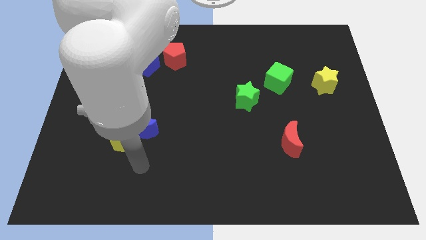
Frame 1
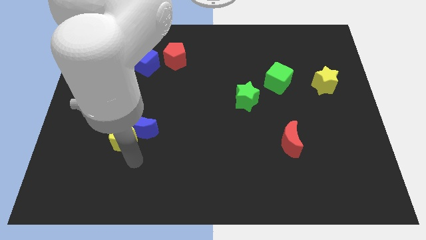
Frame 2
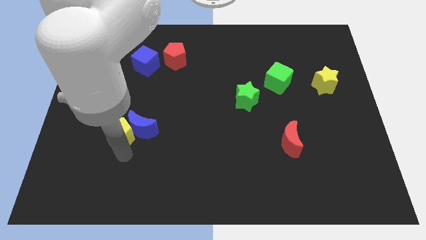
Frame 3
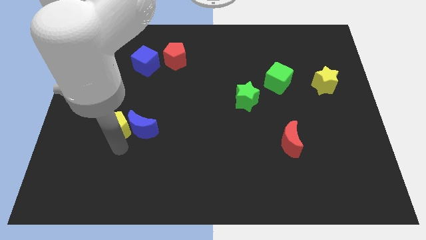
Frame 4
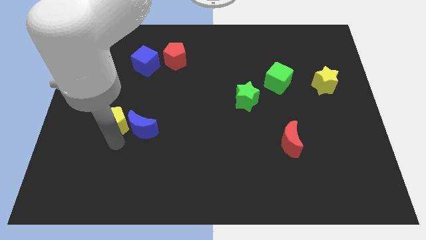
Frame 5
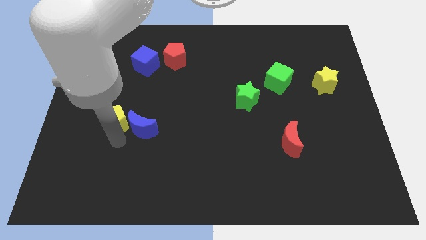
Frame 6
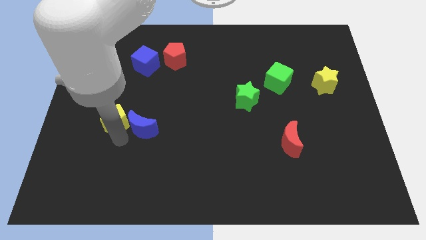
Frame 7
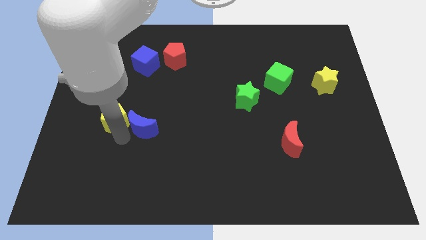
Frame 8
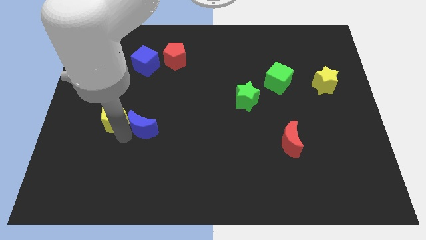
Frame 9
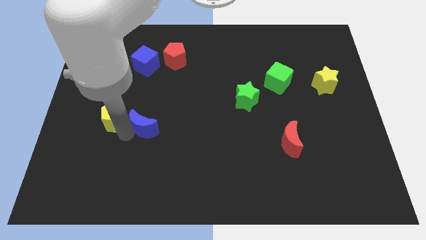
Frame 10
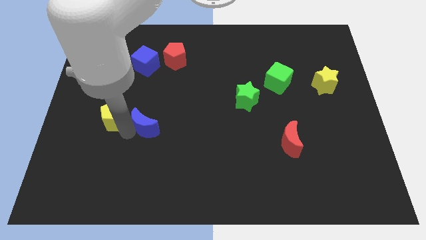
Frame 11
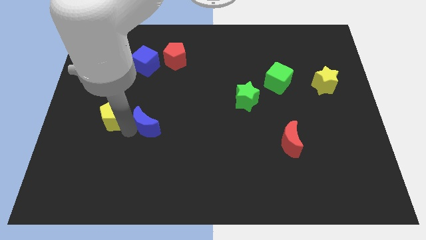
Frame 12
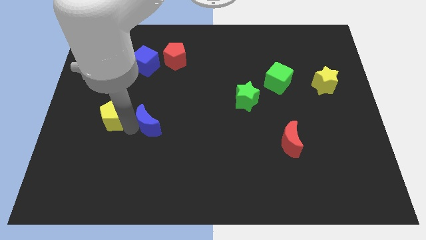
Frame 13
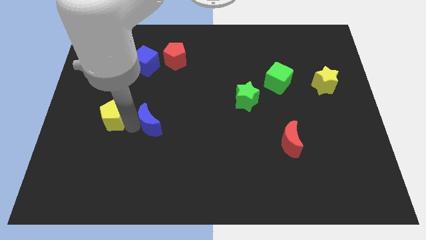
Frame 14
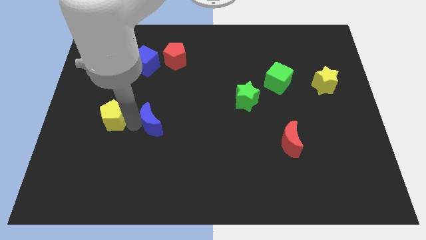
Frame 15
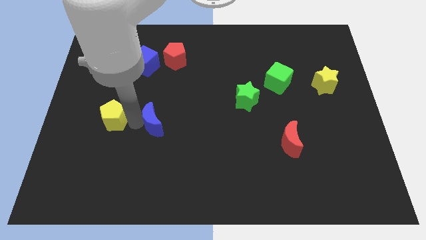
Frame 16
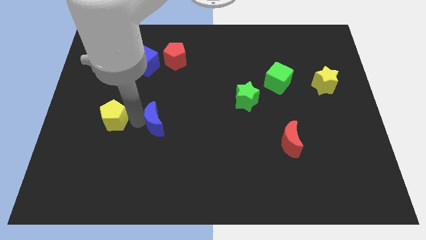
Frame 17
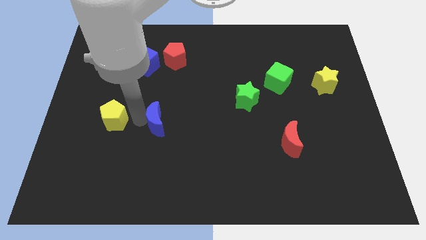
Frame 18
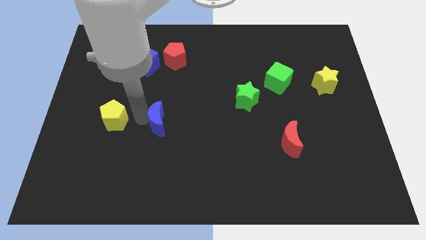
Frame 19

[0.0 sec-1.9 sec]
separate the blue moon from the yellow pentagon

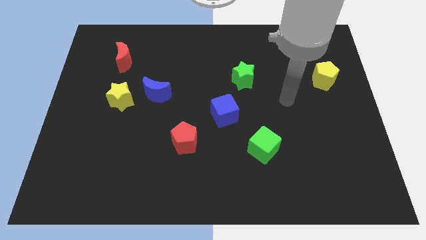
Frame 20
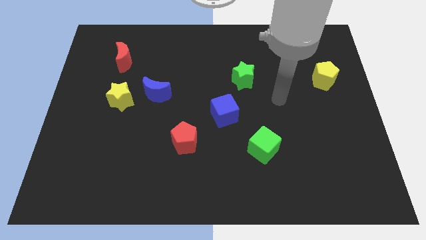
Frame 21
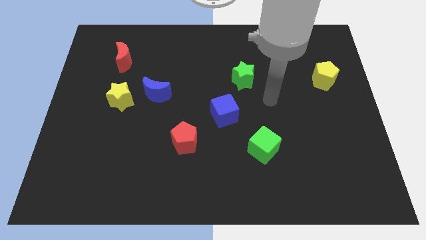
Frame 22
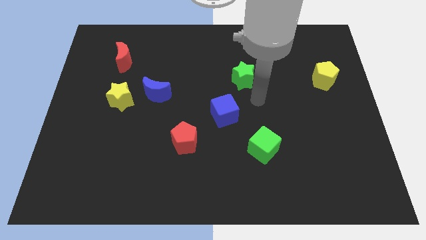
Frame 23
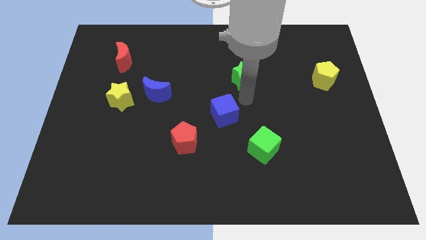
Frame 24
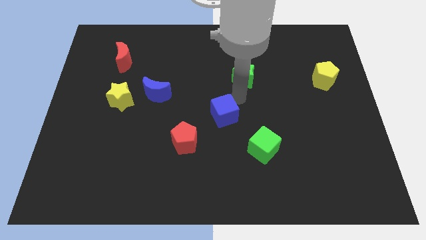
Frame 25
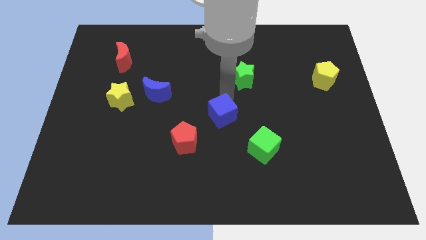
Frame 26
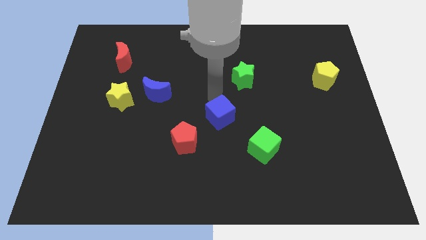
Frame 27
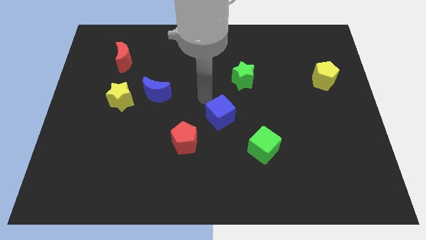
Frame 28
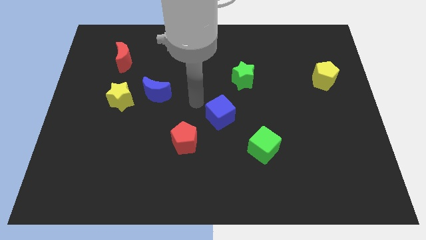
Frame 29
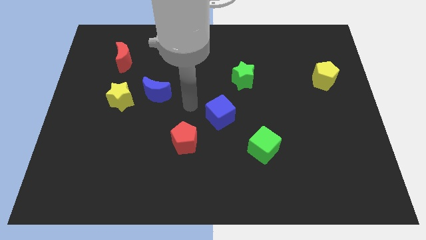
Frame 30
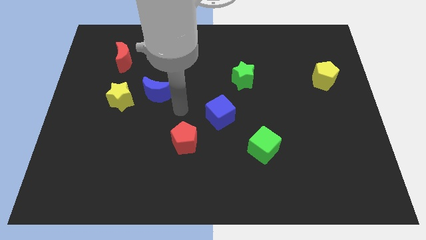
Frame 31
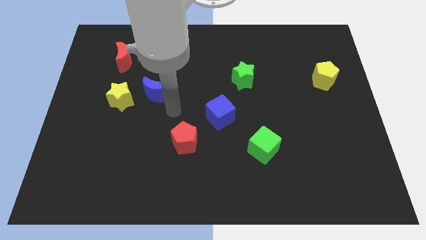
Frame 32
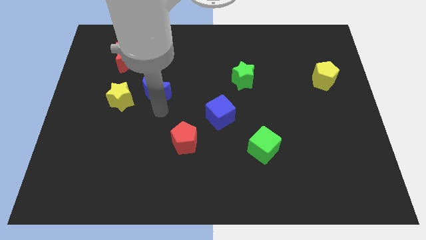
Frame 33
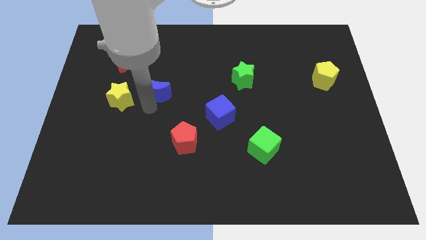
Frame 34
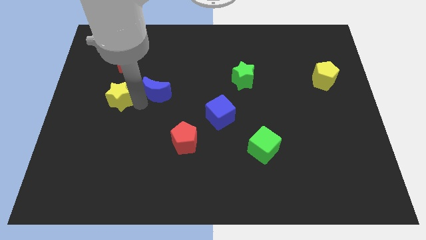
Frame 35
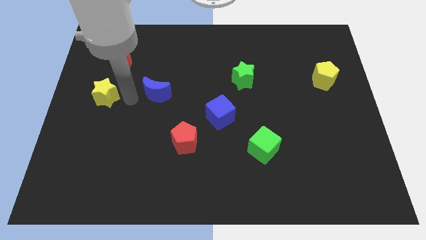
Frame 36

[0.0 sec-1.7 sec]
move the blue moon away from the yellow star

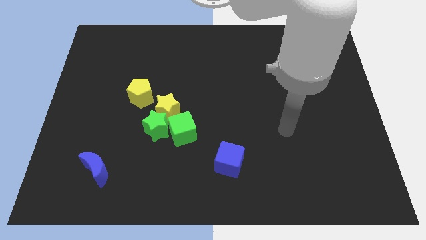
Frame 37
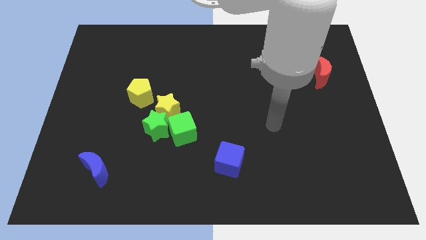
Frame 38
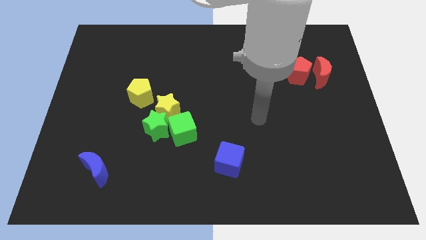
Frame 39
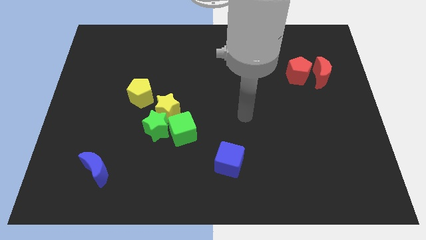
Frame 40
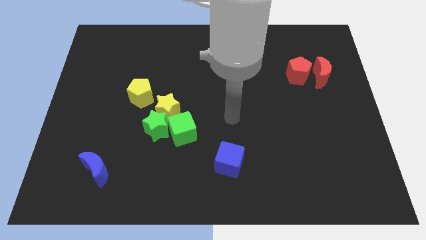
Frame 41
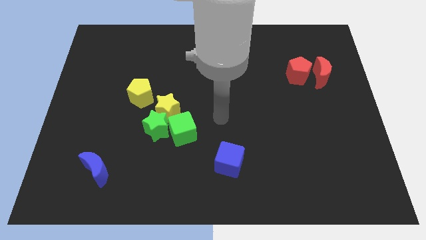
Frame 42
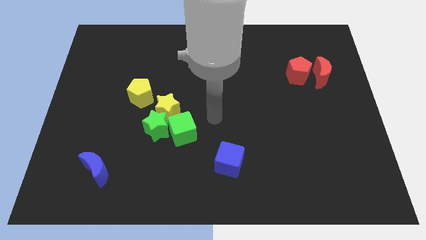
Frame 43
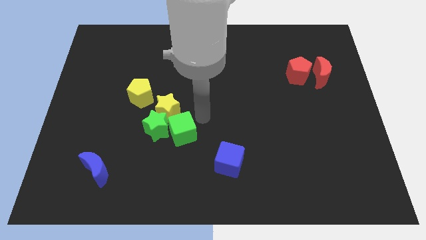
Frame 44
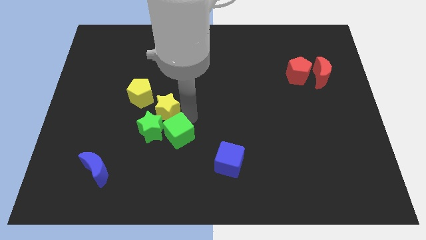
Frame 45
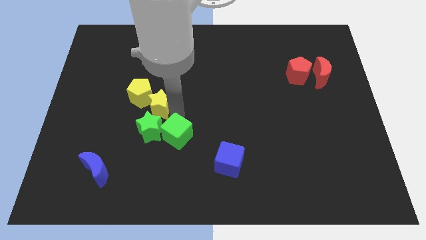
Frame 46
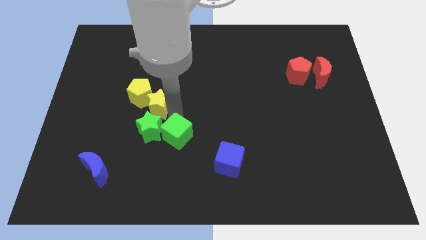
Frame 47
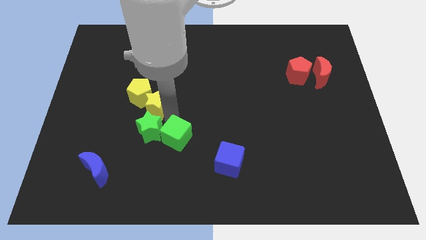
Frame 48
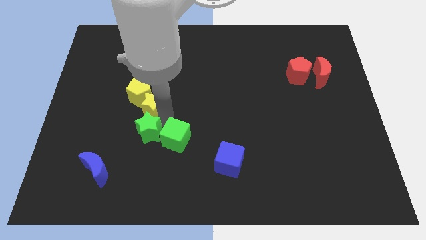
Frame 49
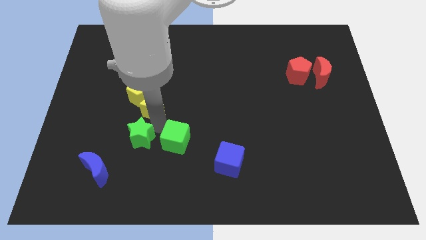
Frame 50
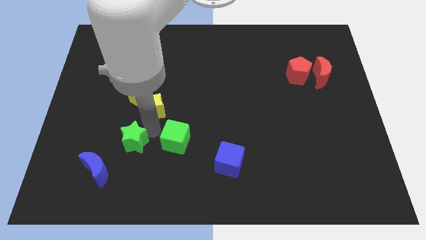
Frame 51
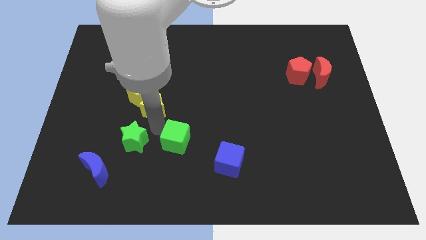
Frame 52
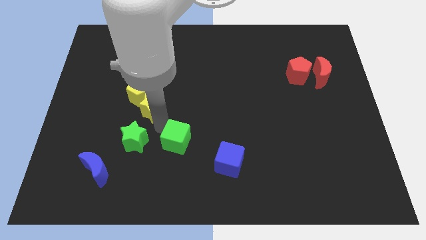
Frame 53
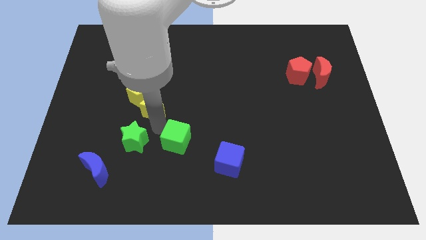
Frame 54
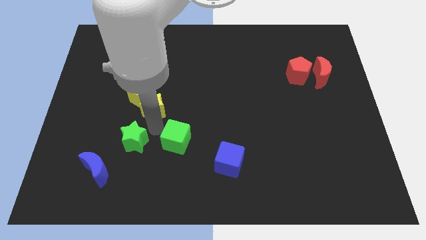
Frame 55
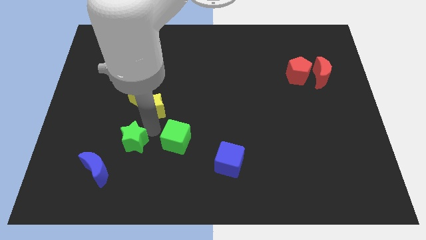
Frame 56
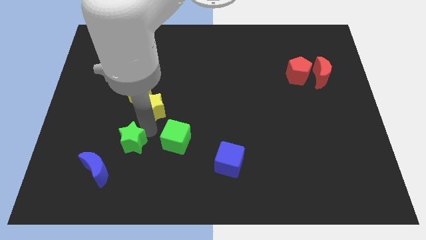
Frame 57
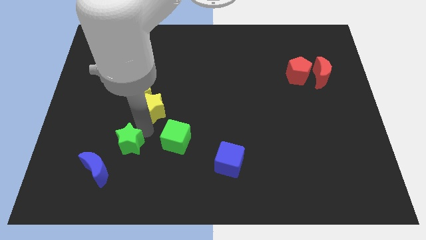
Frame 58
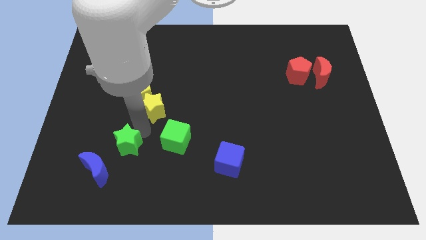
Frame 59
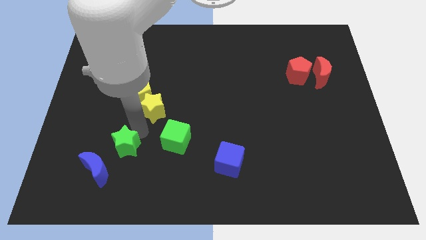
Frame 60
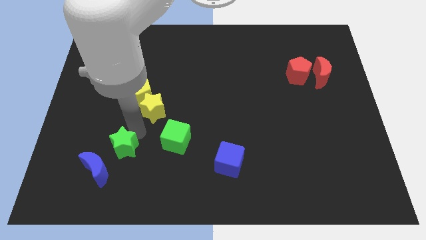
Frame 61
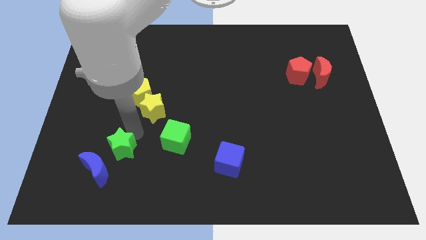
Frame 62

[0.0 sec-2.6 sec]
move the green star away from the yellow star and green cube

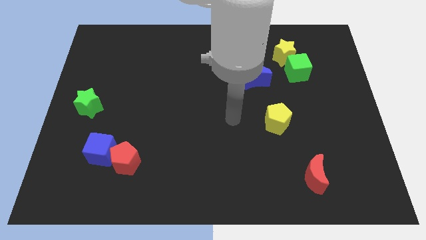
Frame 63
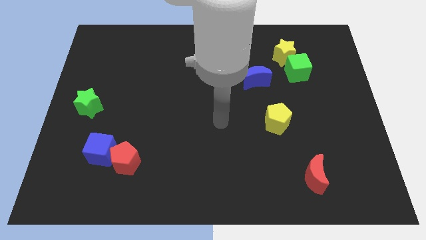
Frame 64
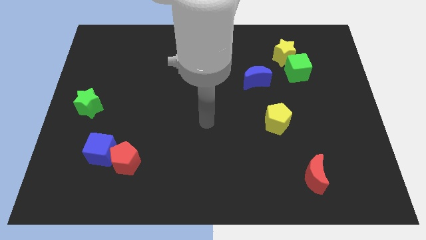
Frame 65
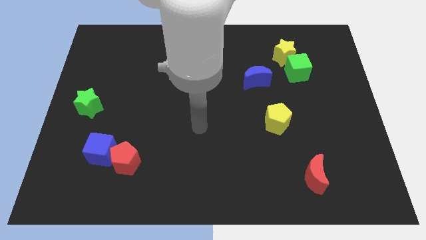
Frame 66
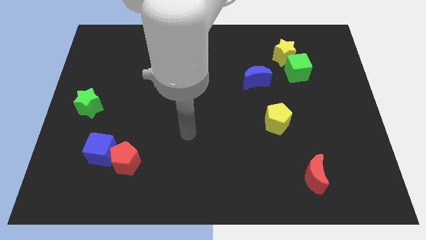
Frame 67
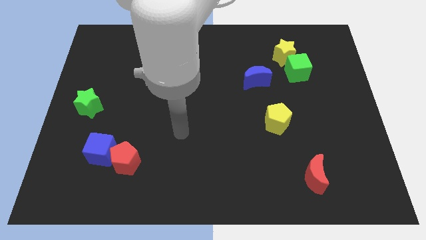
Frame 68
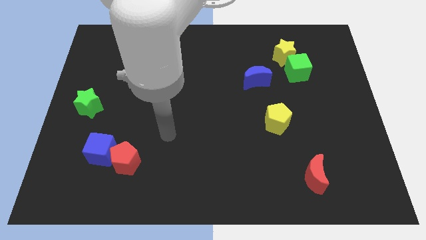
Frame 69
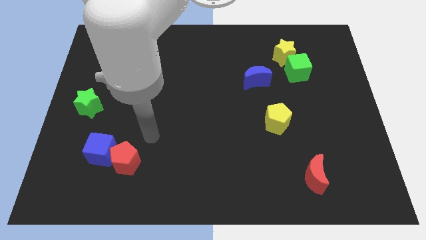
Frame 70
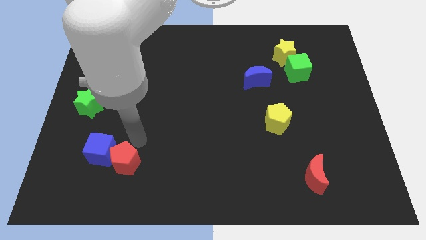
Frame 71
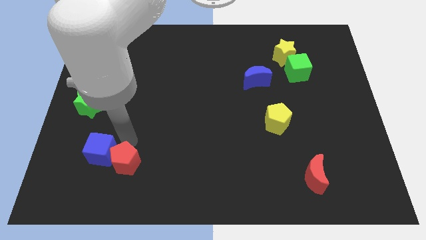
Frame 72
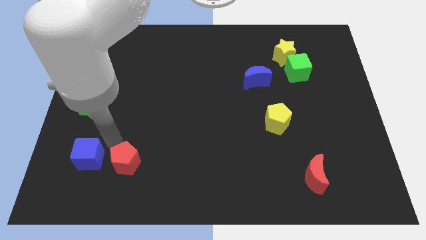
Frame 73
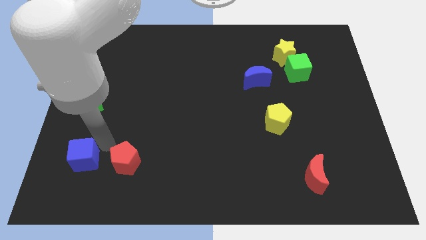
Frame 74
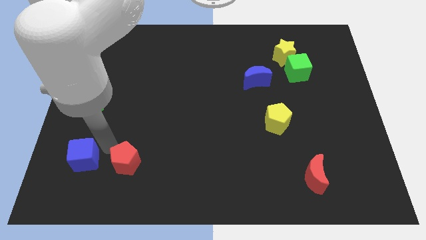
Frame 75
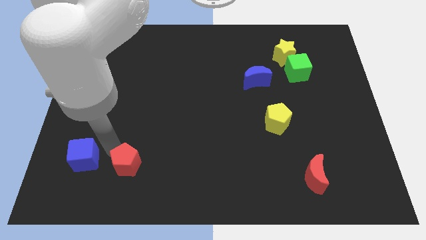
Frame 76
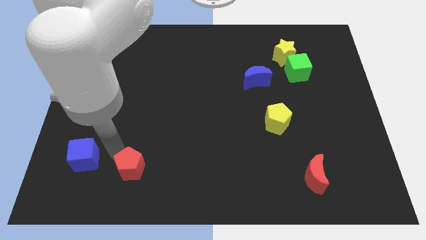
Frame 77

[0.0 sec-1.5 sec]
pull the red pentagon apart from the blue cube

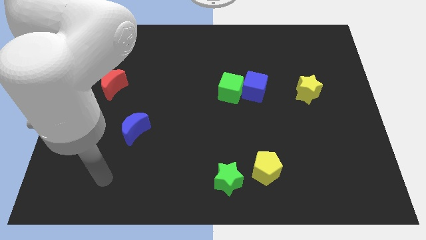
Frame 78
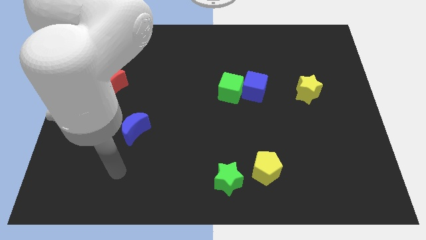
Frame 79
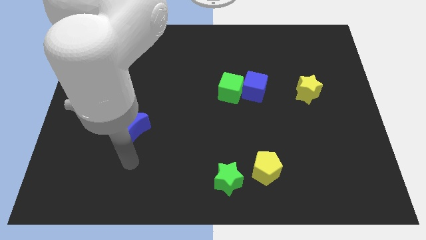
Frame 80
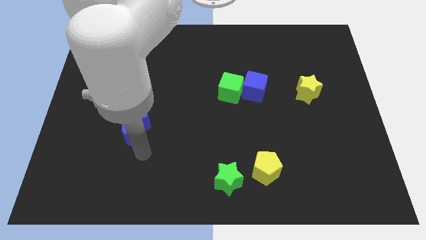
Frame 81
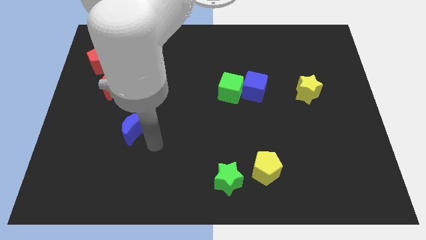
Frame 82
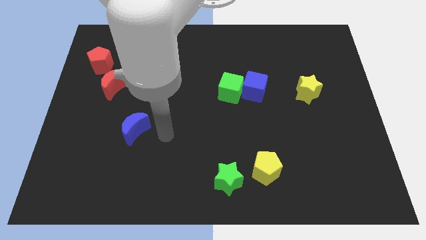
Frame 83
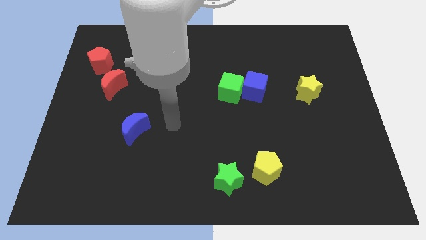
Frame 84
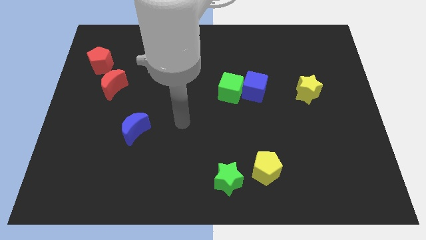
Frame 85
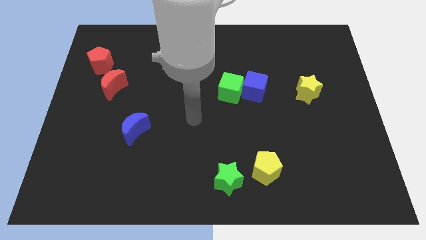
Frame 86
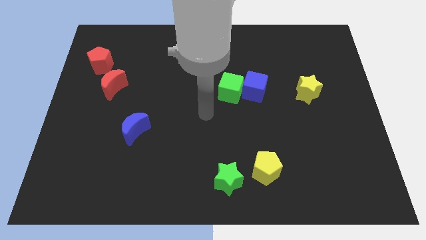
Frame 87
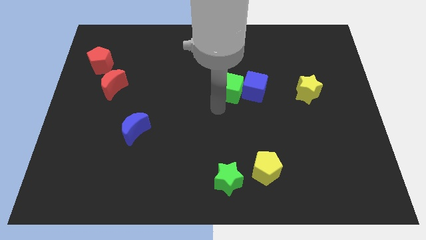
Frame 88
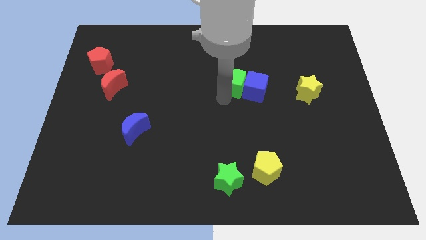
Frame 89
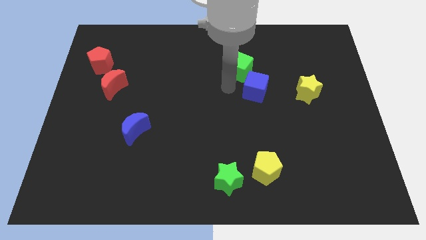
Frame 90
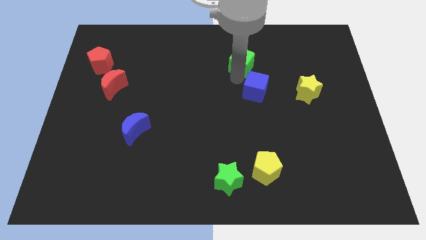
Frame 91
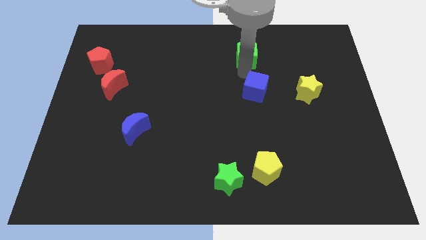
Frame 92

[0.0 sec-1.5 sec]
move the blue cube away from the green cube

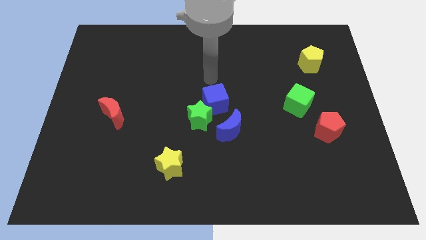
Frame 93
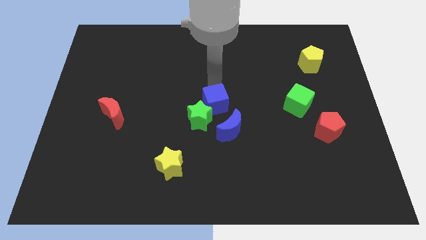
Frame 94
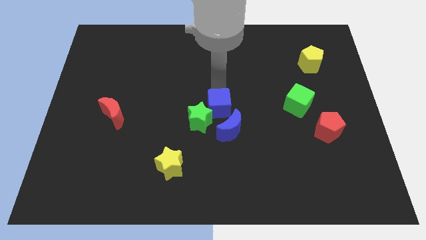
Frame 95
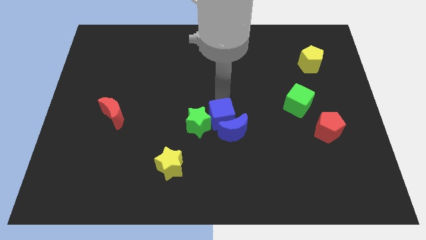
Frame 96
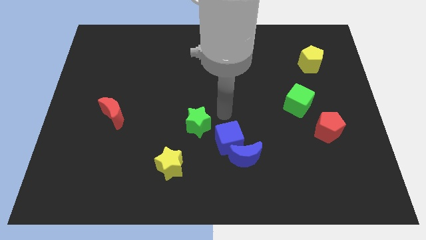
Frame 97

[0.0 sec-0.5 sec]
separate the green star from the blue cube and blue moon
